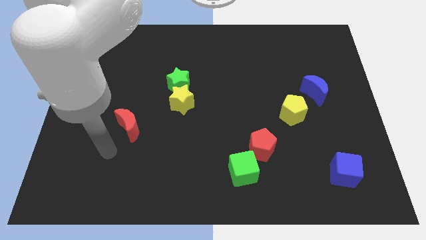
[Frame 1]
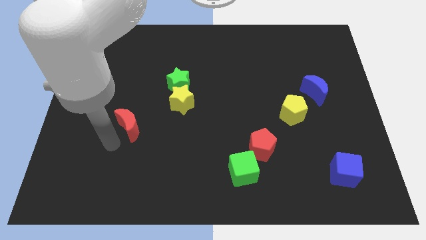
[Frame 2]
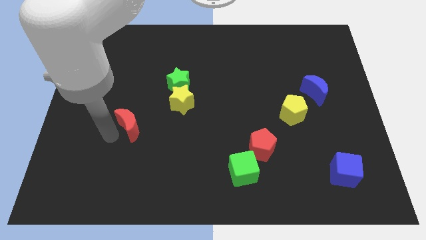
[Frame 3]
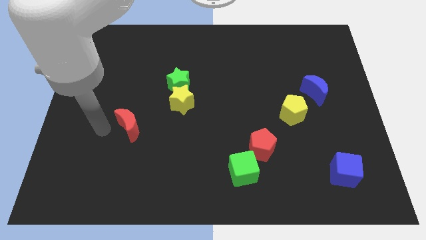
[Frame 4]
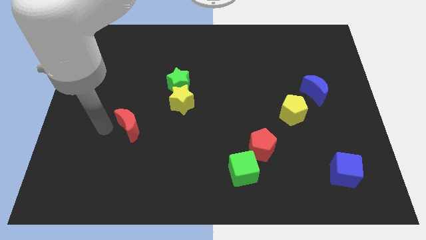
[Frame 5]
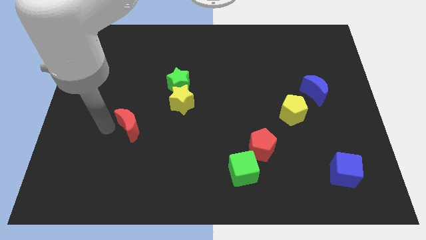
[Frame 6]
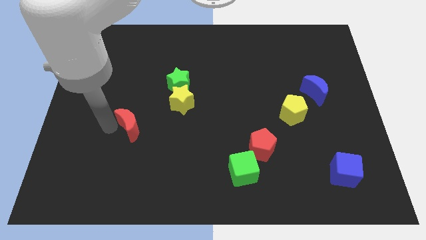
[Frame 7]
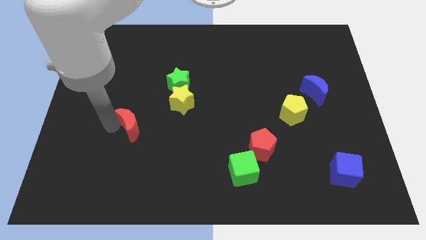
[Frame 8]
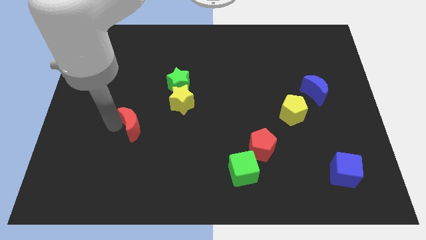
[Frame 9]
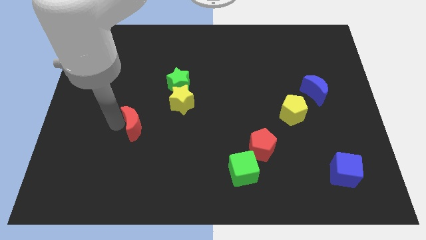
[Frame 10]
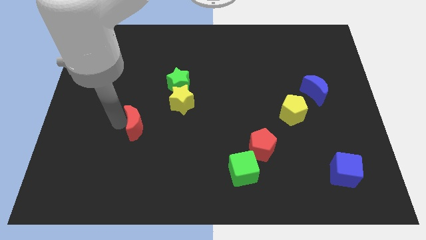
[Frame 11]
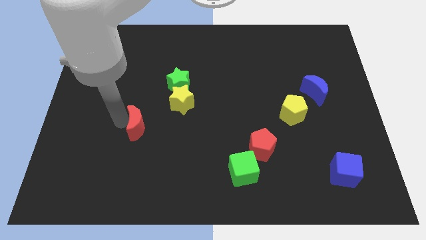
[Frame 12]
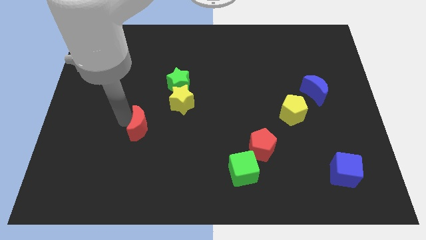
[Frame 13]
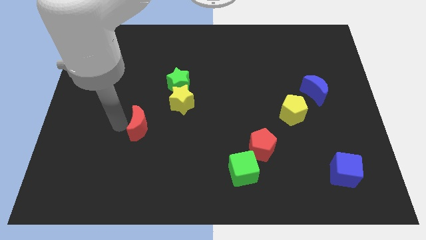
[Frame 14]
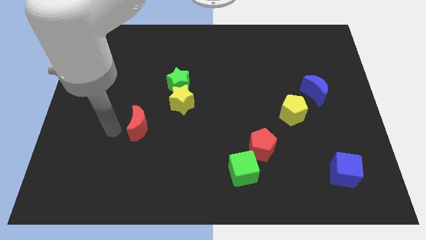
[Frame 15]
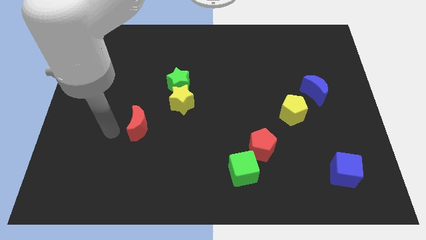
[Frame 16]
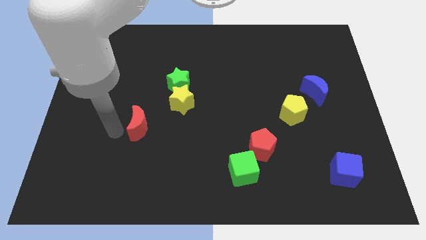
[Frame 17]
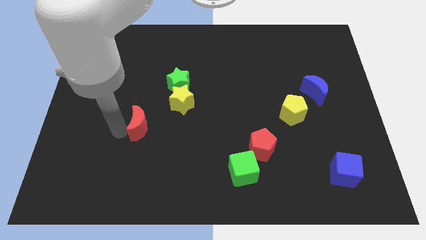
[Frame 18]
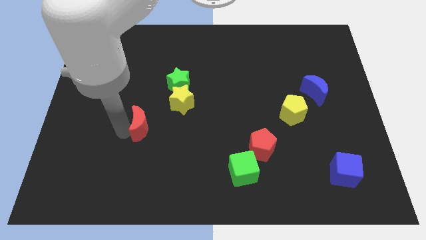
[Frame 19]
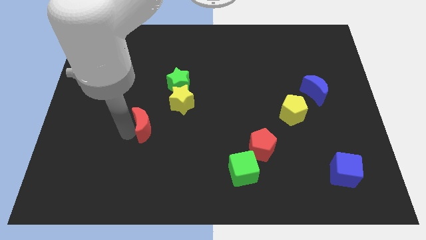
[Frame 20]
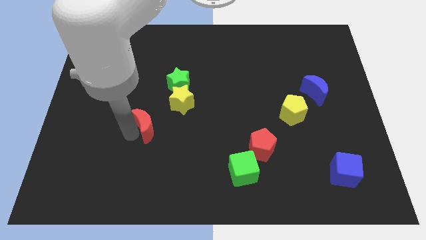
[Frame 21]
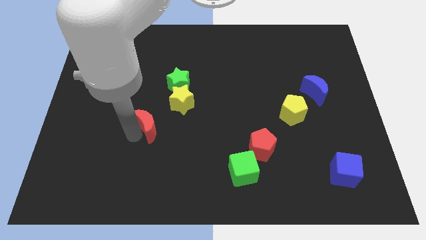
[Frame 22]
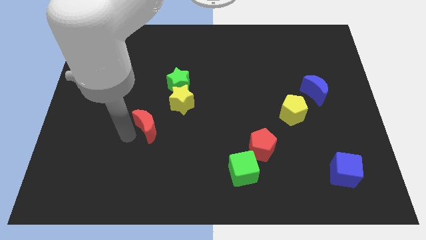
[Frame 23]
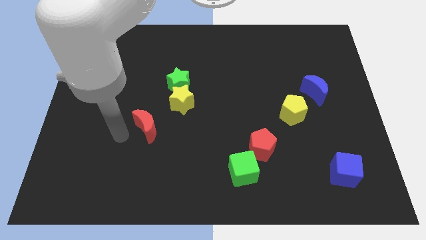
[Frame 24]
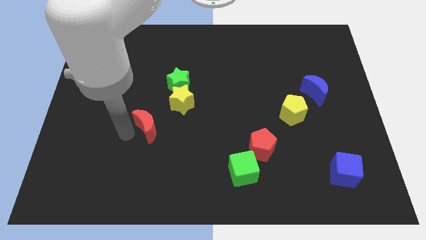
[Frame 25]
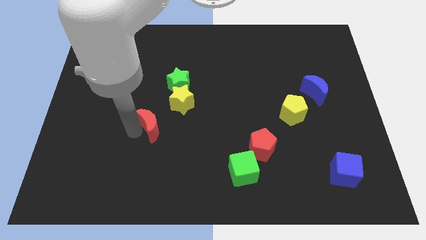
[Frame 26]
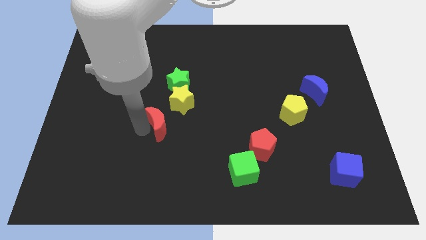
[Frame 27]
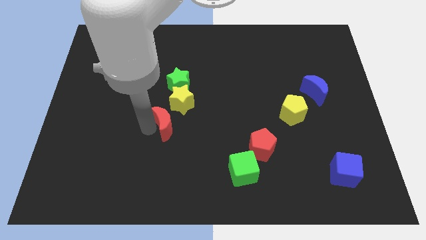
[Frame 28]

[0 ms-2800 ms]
slightly slide the red moon right

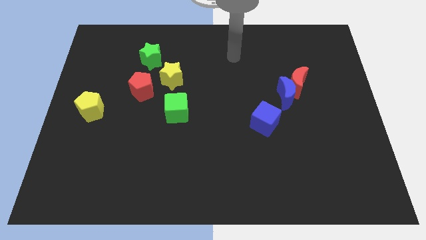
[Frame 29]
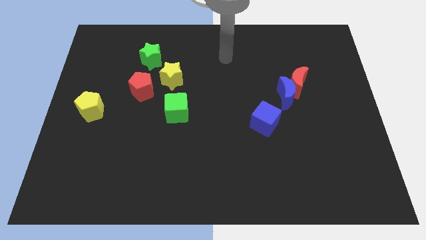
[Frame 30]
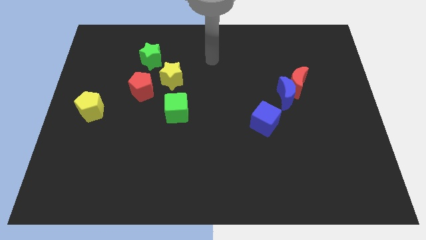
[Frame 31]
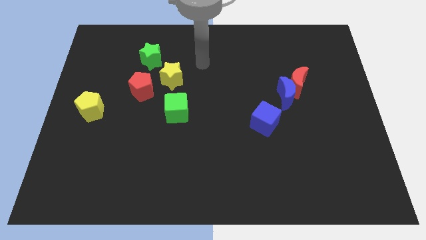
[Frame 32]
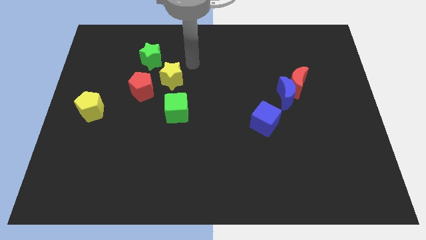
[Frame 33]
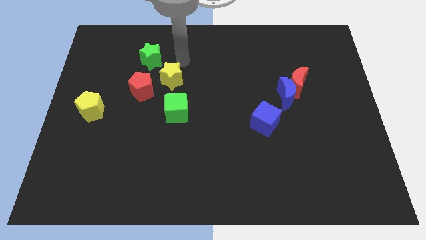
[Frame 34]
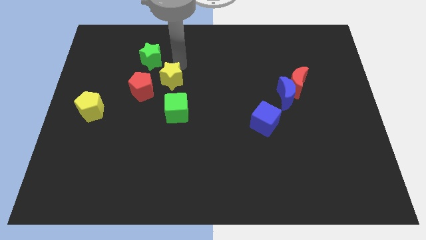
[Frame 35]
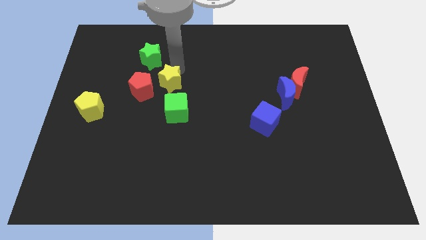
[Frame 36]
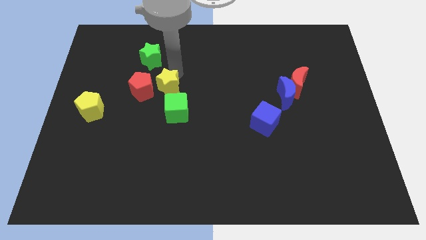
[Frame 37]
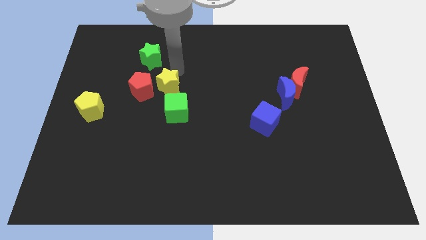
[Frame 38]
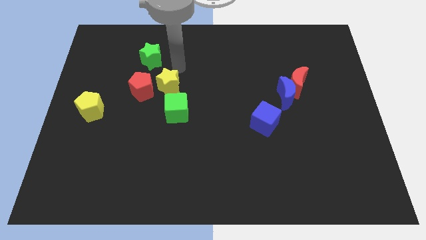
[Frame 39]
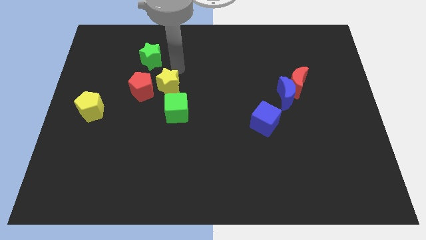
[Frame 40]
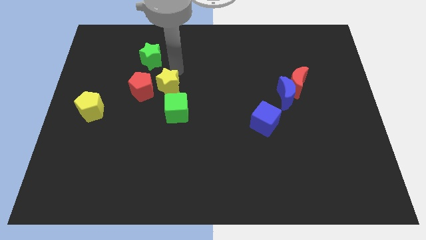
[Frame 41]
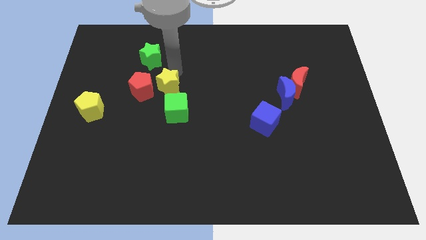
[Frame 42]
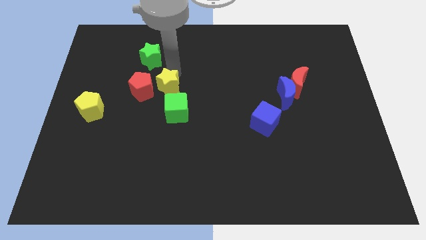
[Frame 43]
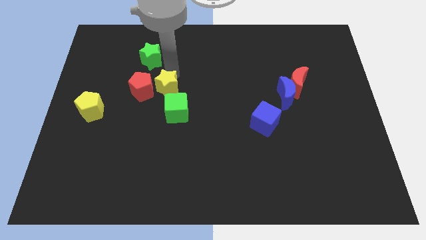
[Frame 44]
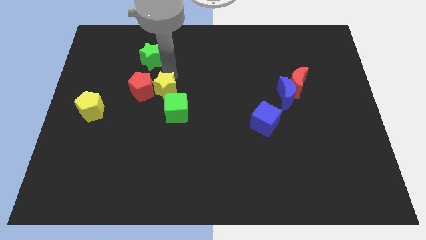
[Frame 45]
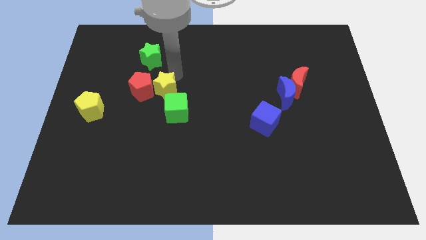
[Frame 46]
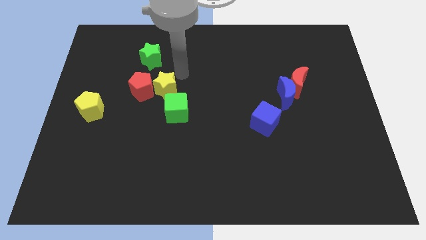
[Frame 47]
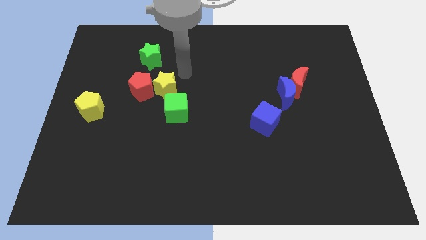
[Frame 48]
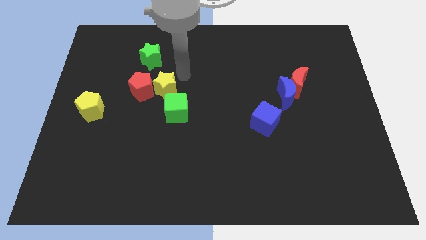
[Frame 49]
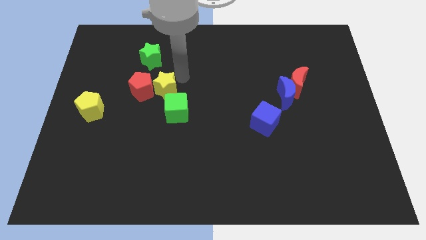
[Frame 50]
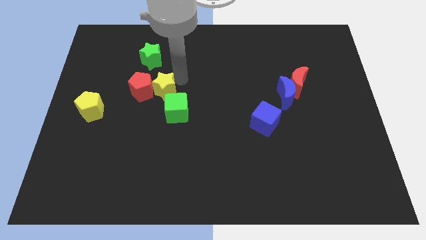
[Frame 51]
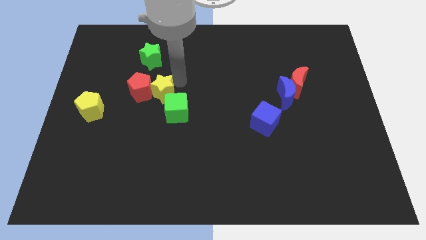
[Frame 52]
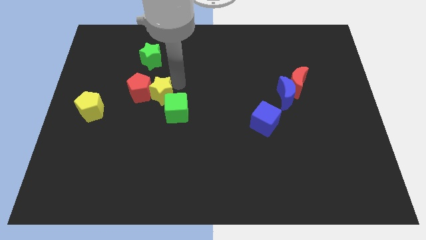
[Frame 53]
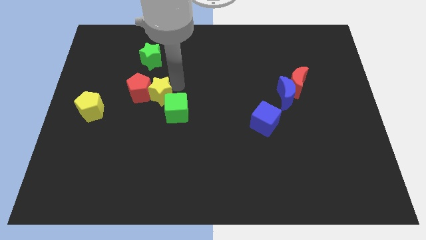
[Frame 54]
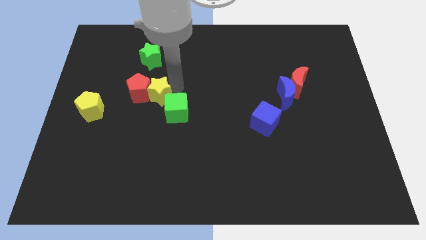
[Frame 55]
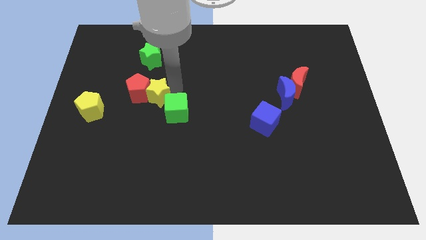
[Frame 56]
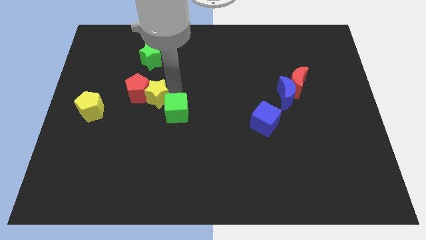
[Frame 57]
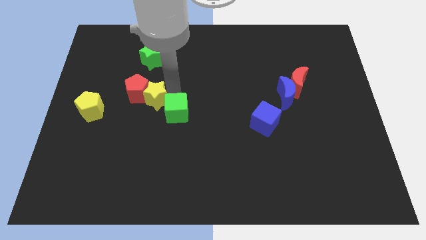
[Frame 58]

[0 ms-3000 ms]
slightly push the yellow star diagonally downwards and left

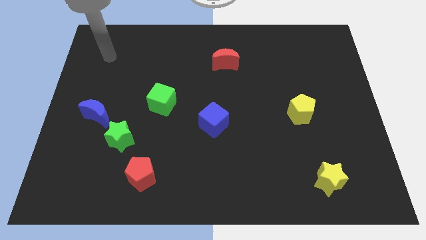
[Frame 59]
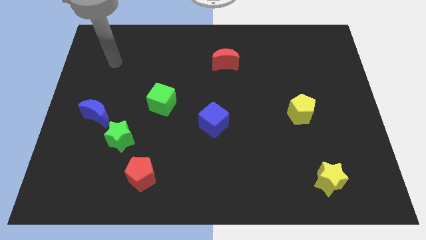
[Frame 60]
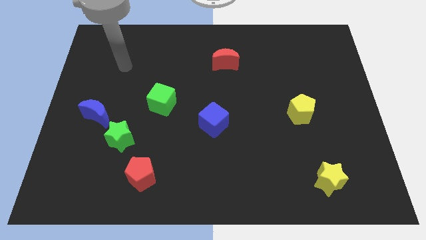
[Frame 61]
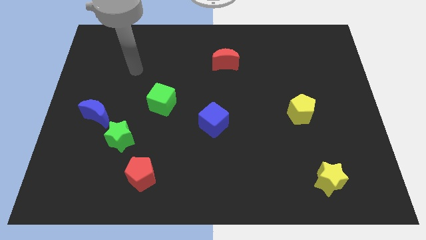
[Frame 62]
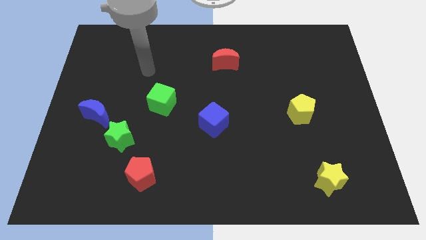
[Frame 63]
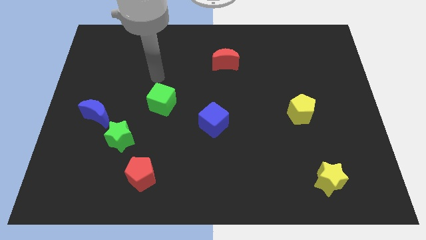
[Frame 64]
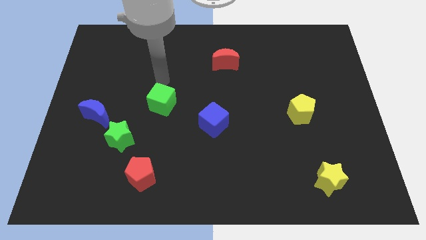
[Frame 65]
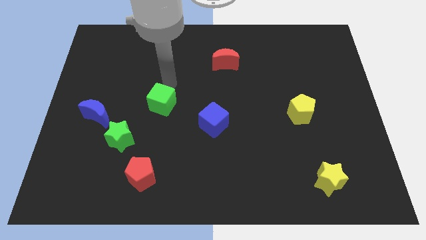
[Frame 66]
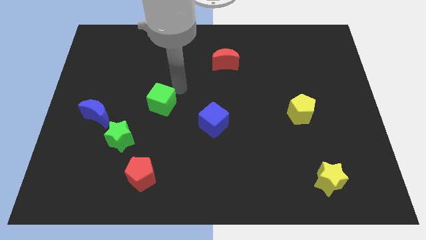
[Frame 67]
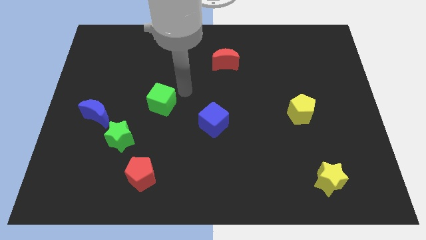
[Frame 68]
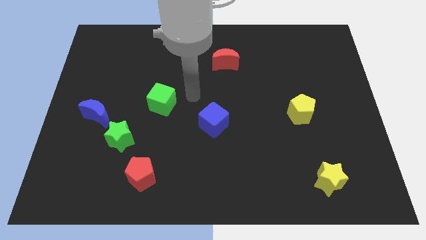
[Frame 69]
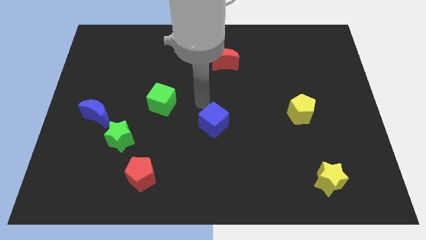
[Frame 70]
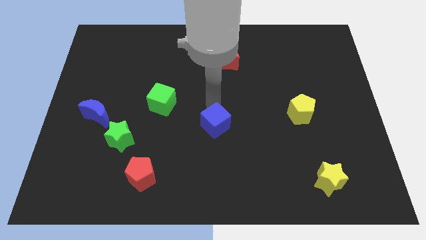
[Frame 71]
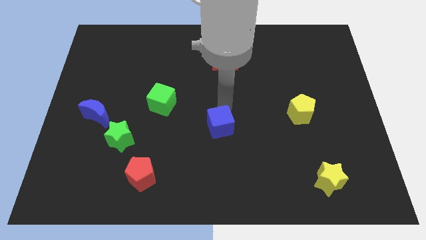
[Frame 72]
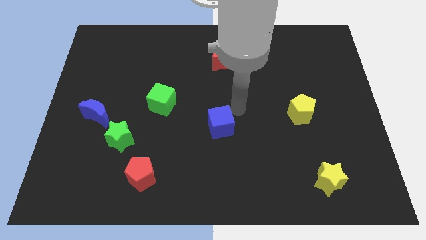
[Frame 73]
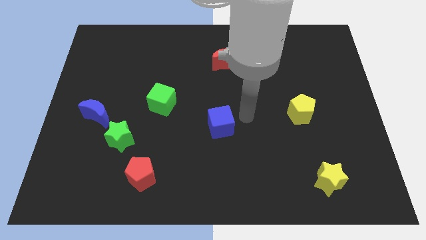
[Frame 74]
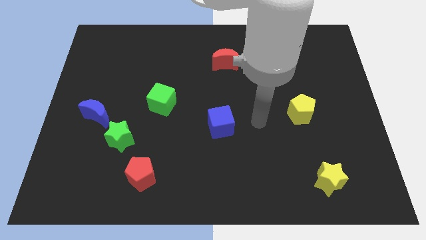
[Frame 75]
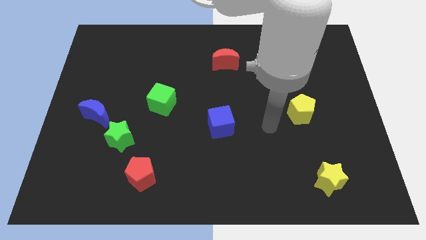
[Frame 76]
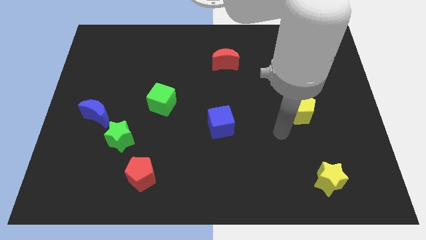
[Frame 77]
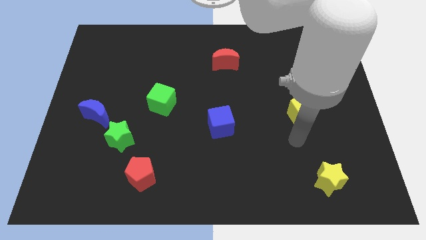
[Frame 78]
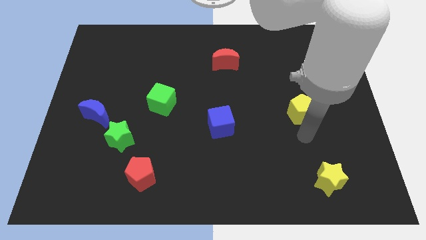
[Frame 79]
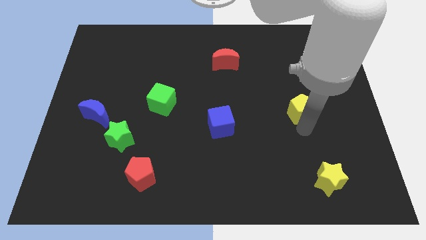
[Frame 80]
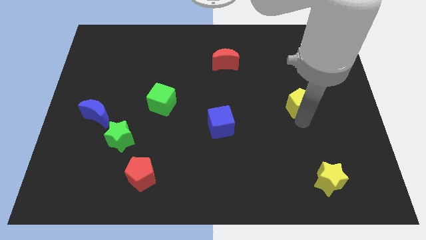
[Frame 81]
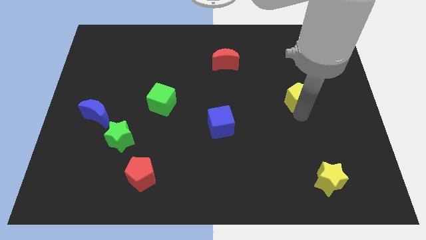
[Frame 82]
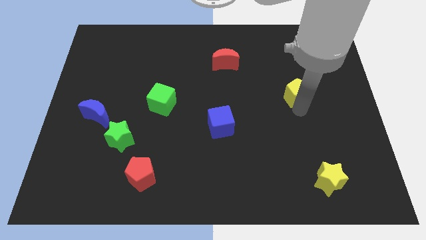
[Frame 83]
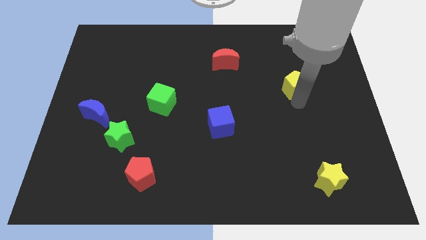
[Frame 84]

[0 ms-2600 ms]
slightly slide the yellow pentagon up
